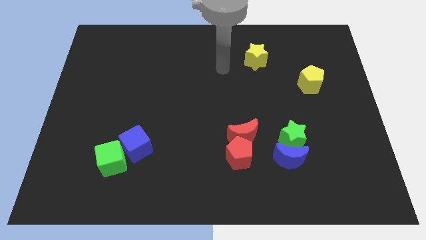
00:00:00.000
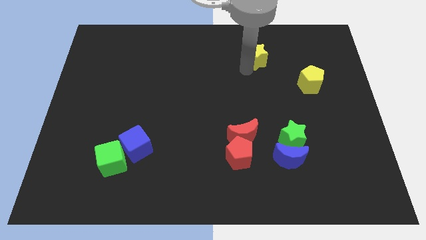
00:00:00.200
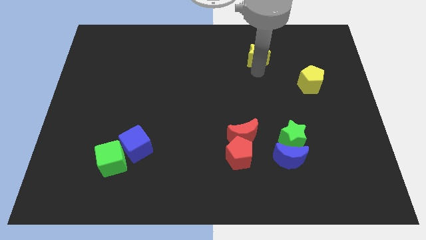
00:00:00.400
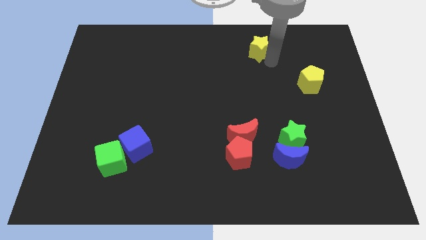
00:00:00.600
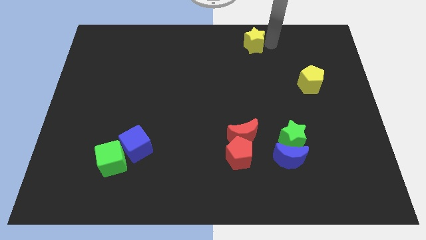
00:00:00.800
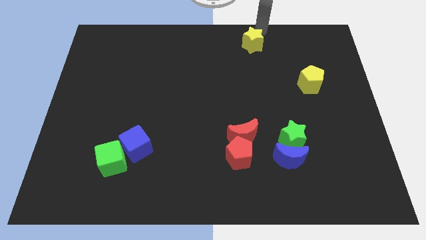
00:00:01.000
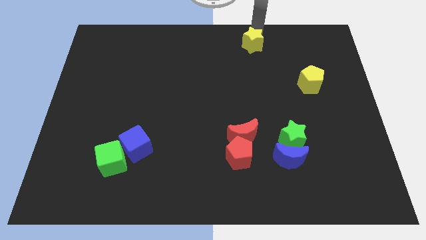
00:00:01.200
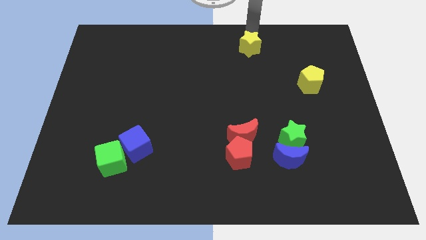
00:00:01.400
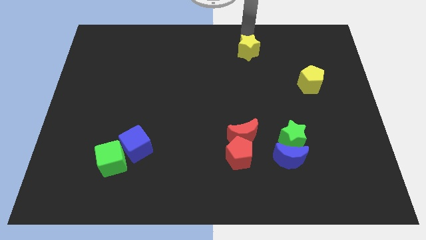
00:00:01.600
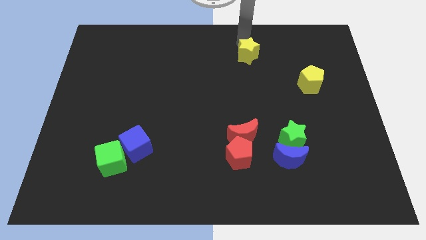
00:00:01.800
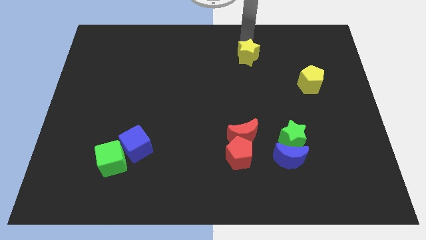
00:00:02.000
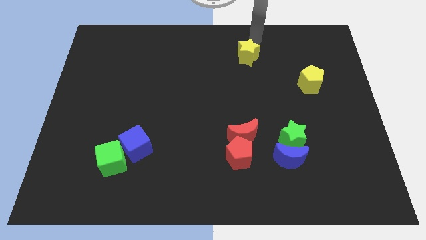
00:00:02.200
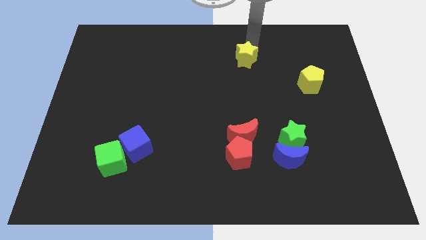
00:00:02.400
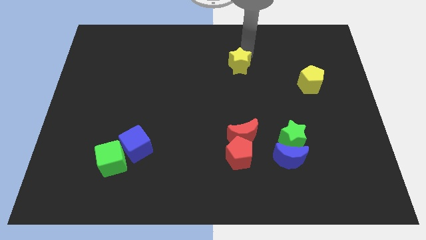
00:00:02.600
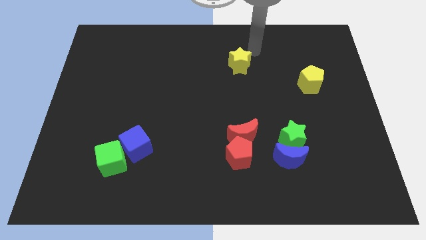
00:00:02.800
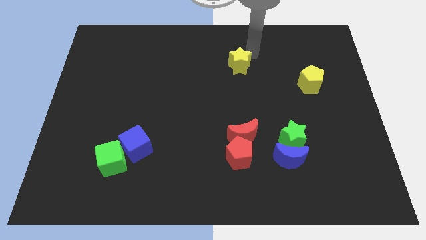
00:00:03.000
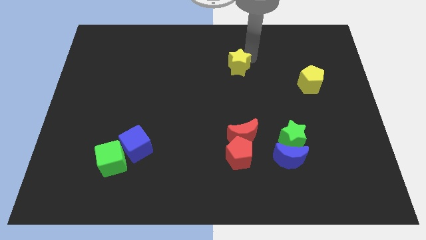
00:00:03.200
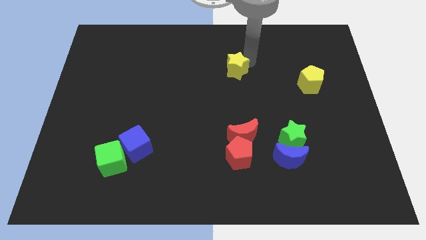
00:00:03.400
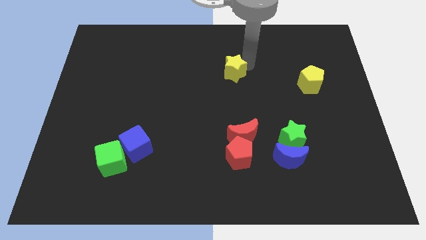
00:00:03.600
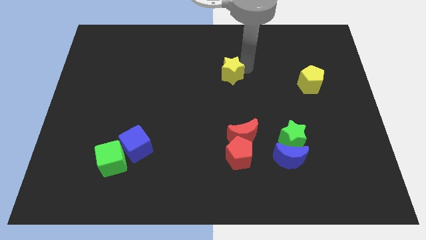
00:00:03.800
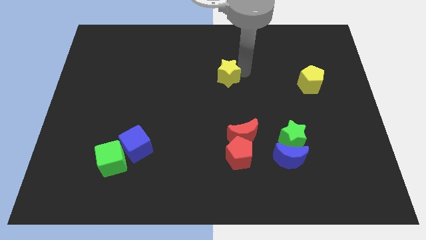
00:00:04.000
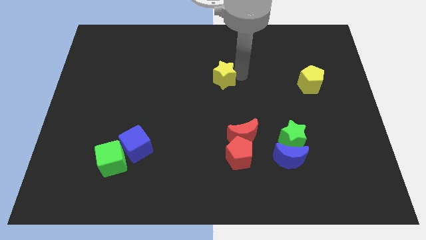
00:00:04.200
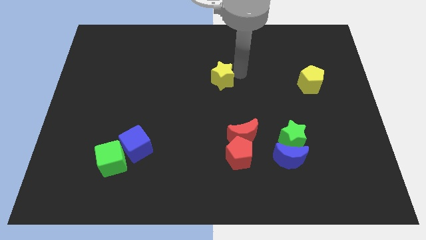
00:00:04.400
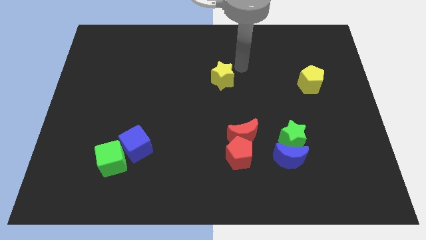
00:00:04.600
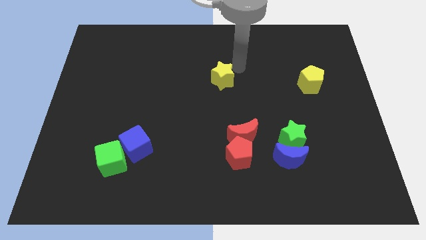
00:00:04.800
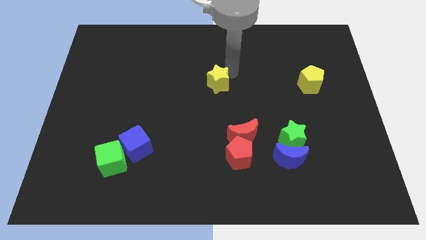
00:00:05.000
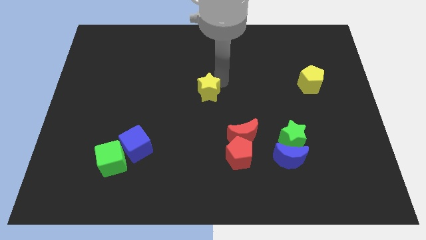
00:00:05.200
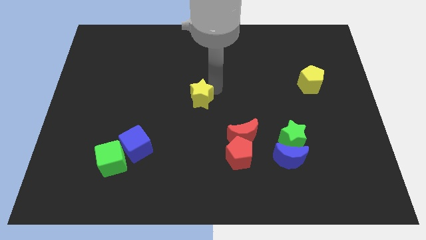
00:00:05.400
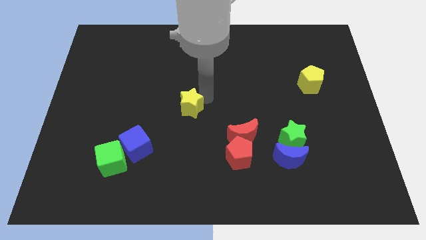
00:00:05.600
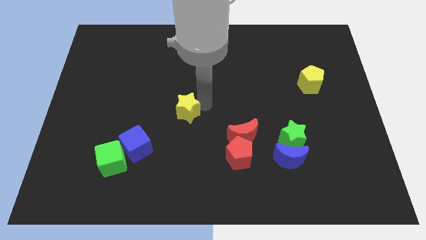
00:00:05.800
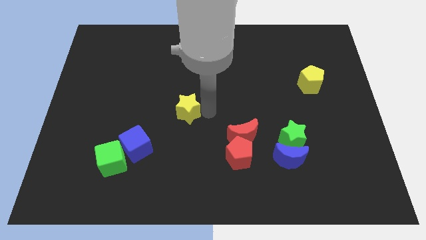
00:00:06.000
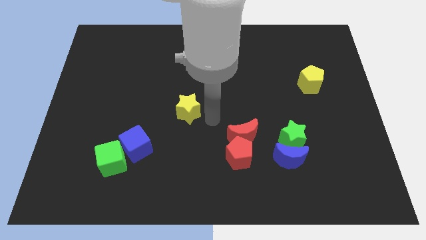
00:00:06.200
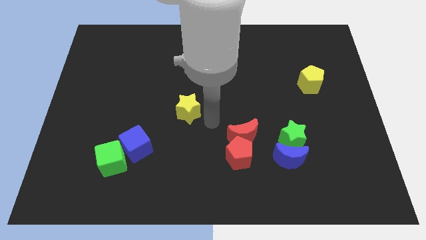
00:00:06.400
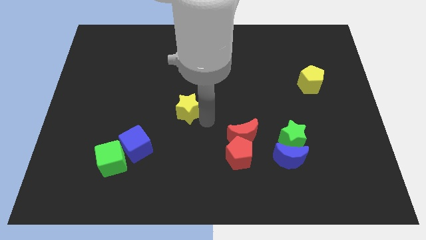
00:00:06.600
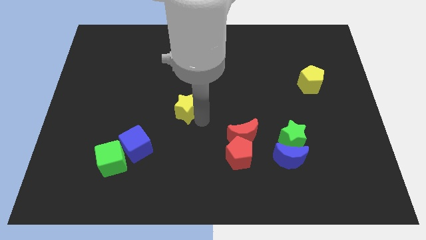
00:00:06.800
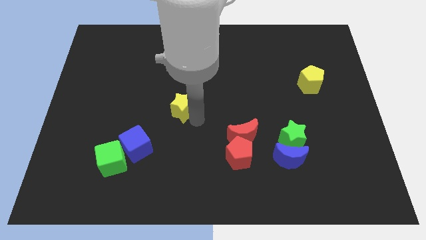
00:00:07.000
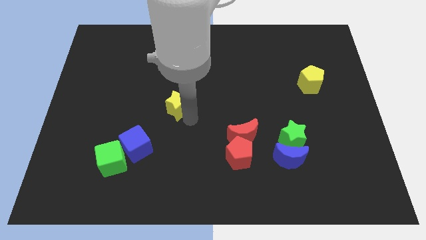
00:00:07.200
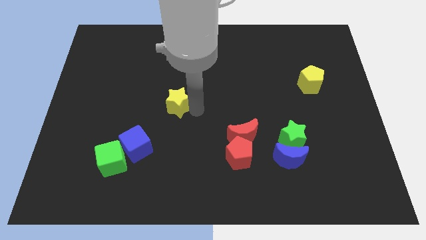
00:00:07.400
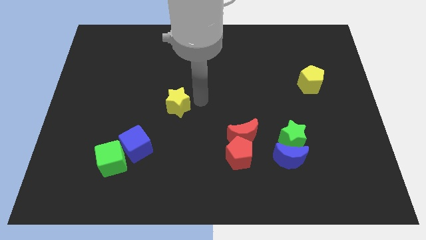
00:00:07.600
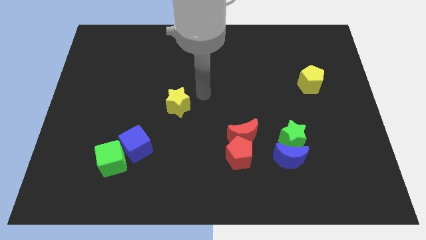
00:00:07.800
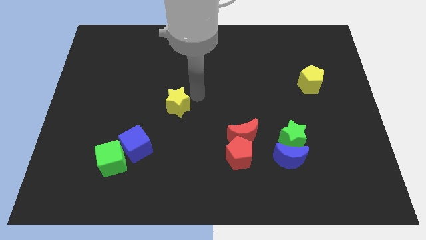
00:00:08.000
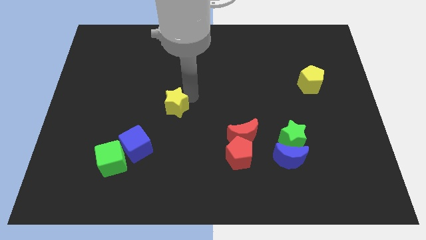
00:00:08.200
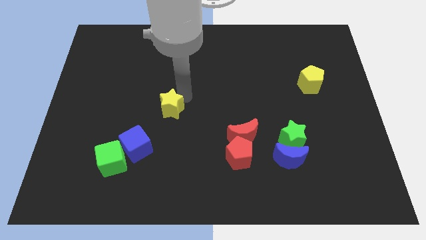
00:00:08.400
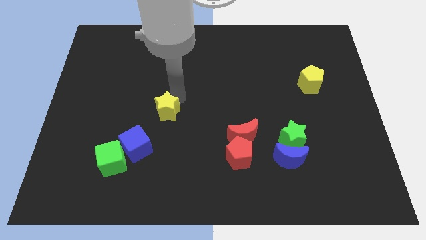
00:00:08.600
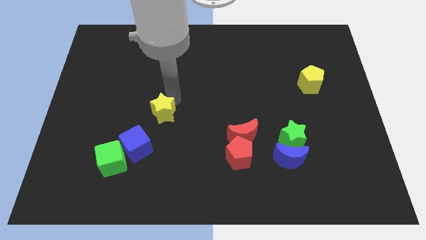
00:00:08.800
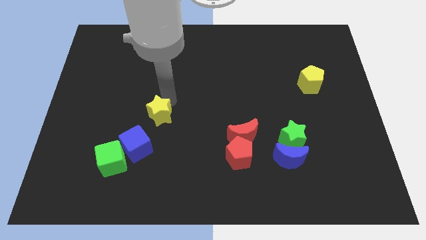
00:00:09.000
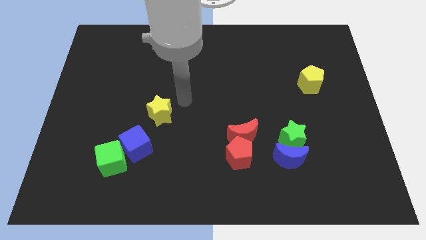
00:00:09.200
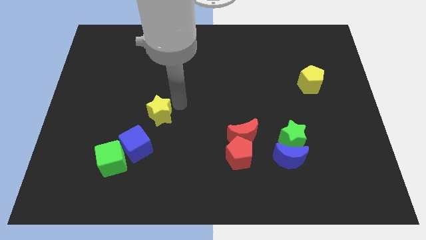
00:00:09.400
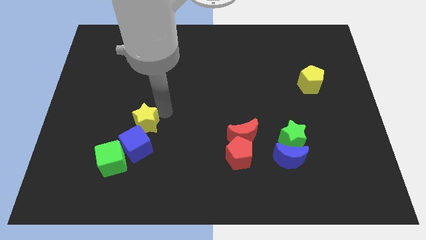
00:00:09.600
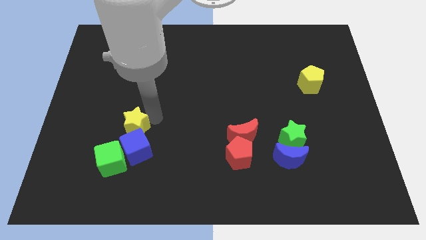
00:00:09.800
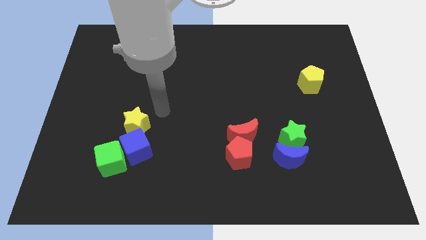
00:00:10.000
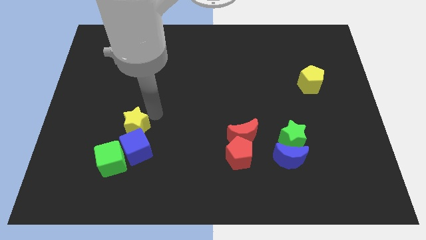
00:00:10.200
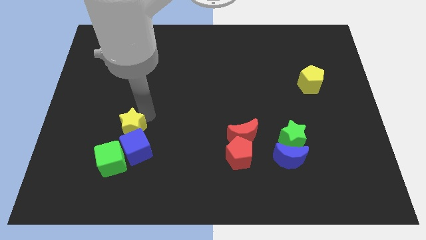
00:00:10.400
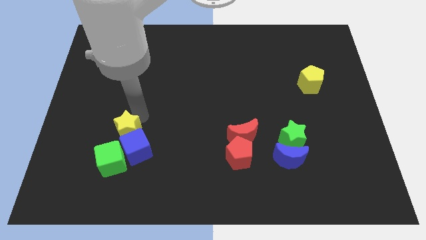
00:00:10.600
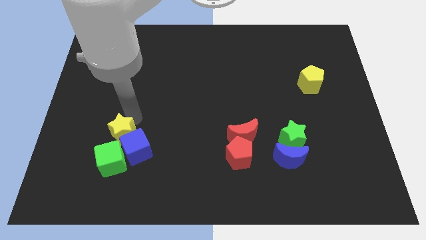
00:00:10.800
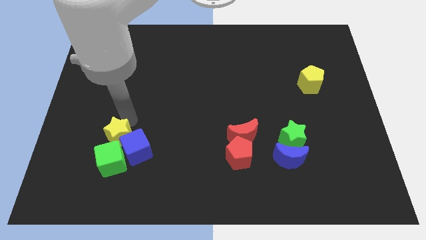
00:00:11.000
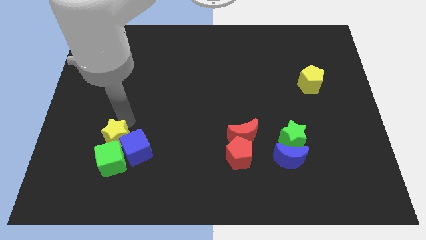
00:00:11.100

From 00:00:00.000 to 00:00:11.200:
push the yellow star to the green cube

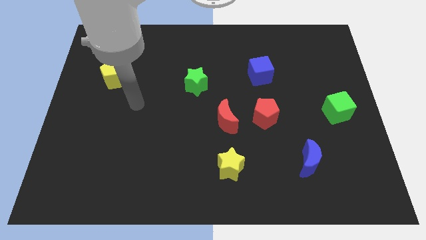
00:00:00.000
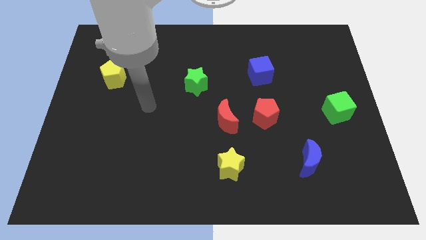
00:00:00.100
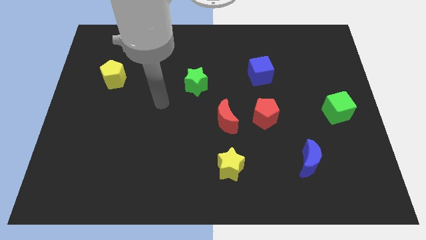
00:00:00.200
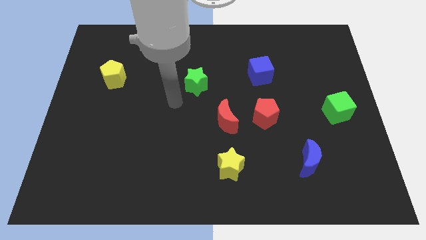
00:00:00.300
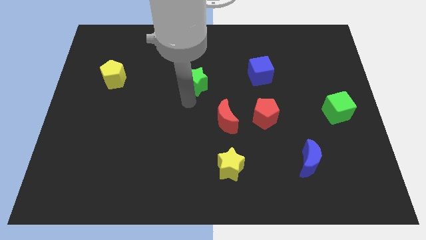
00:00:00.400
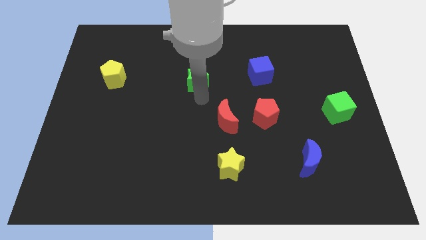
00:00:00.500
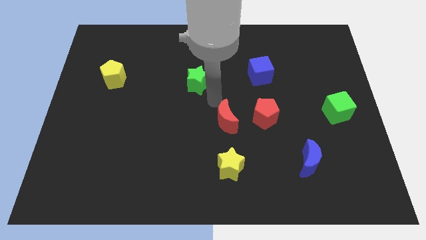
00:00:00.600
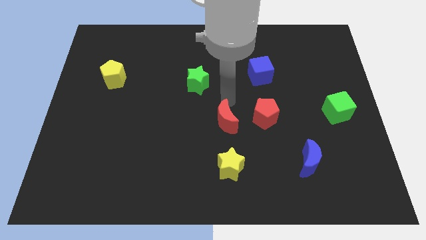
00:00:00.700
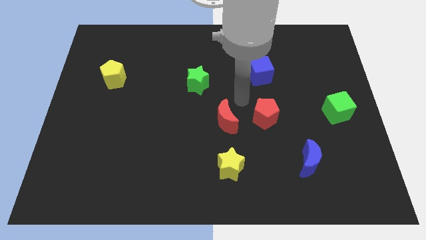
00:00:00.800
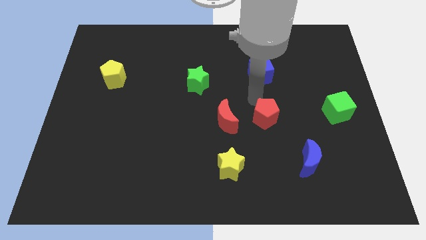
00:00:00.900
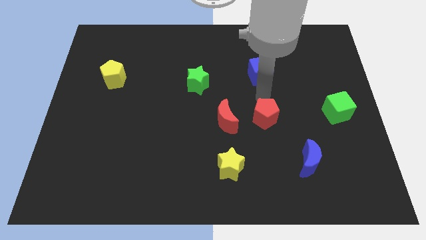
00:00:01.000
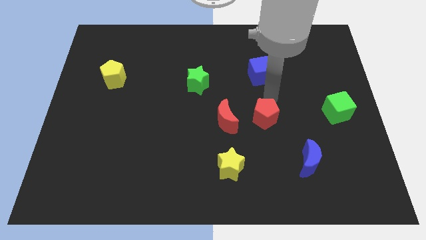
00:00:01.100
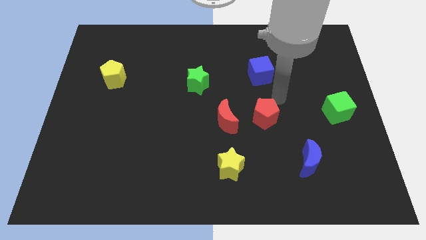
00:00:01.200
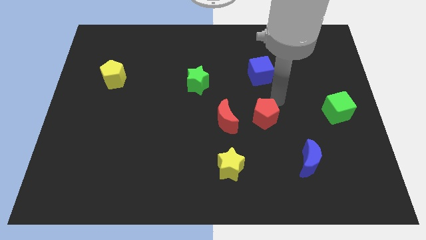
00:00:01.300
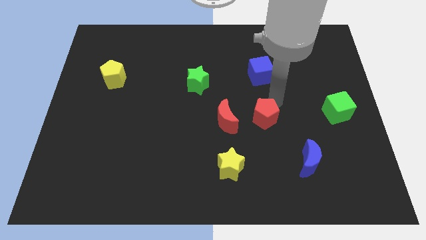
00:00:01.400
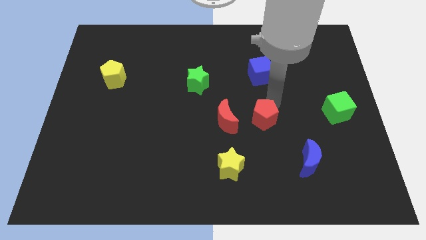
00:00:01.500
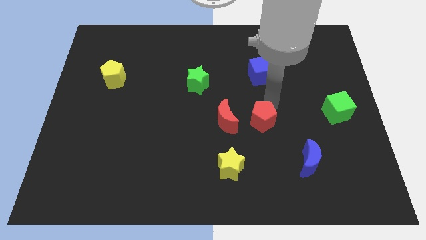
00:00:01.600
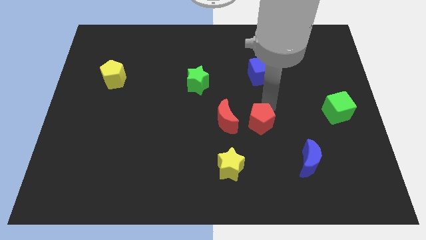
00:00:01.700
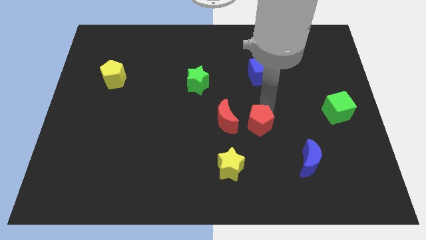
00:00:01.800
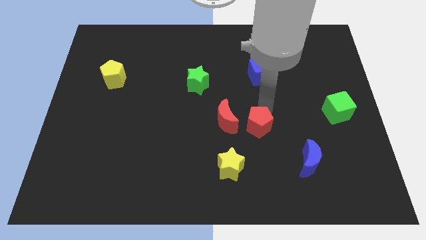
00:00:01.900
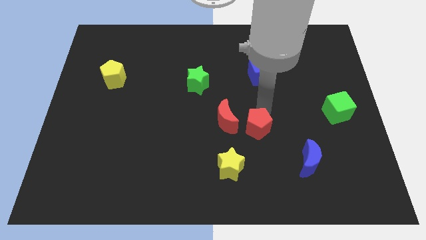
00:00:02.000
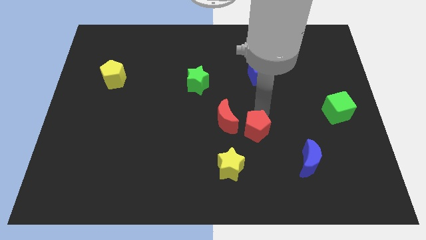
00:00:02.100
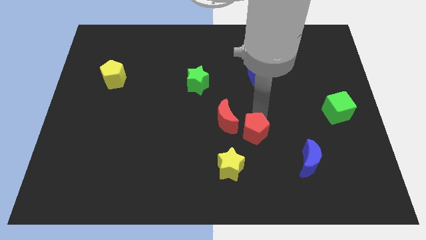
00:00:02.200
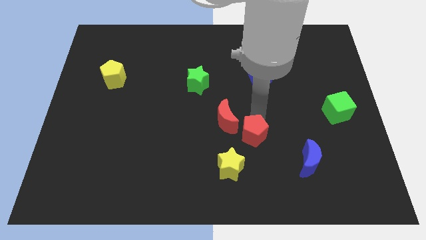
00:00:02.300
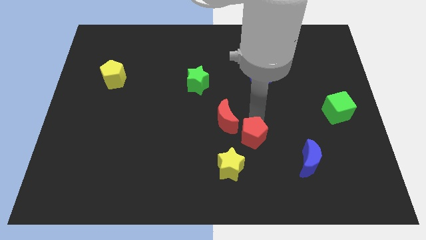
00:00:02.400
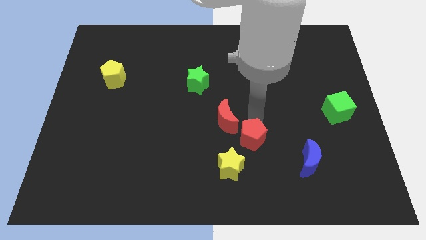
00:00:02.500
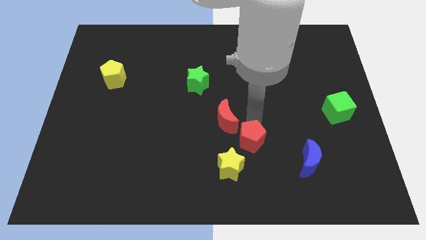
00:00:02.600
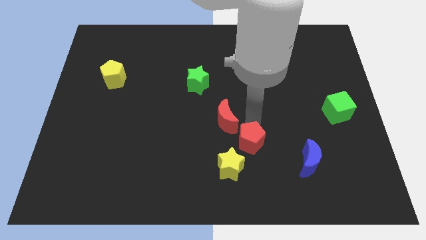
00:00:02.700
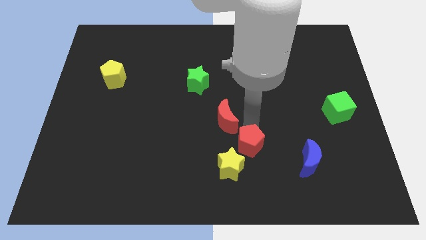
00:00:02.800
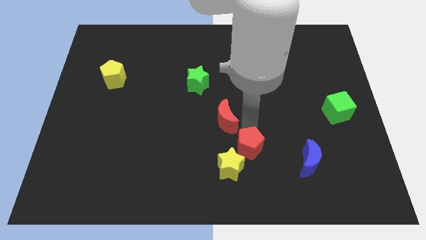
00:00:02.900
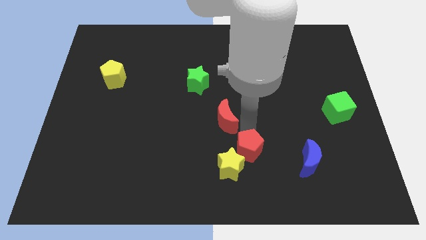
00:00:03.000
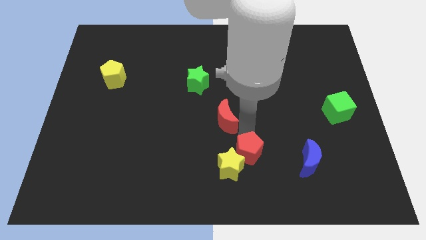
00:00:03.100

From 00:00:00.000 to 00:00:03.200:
put the red pentagon next to the yellow star
